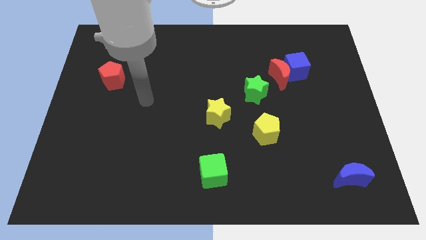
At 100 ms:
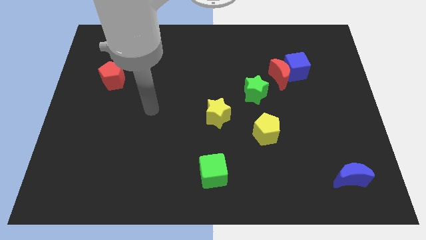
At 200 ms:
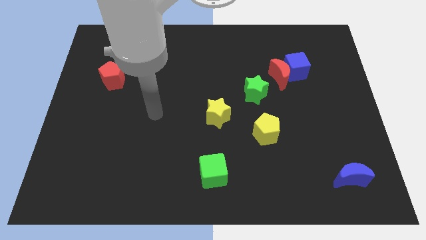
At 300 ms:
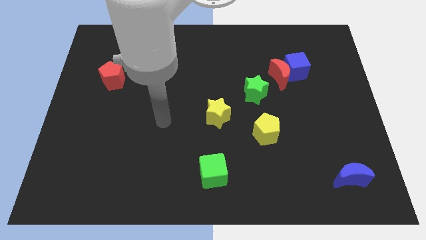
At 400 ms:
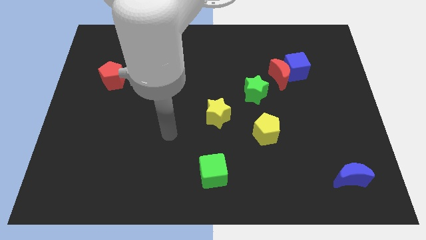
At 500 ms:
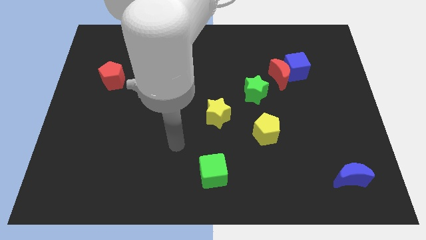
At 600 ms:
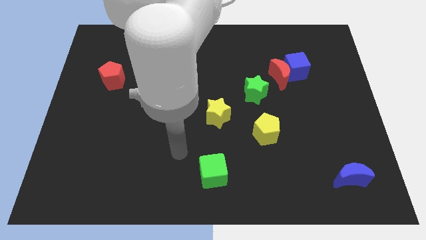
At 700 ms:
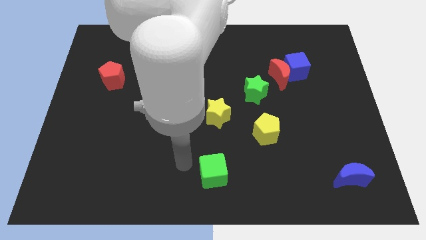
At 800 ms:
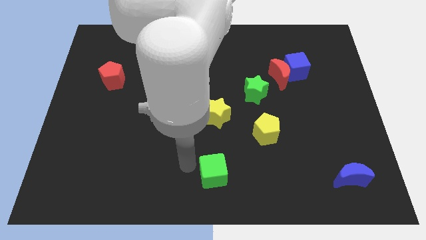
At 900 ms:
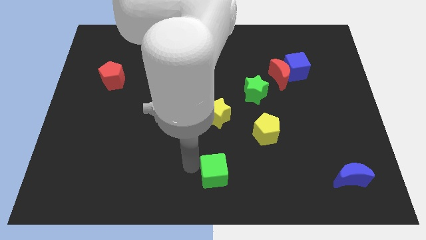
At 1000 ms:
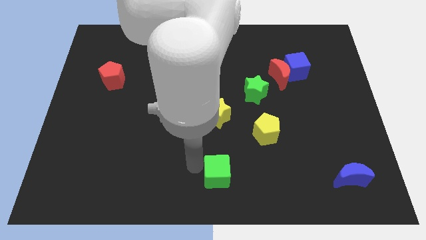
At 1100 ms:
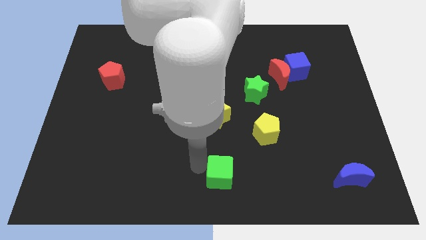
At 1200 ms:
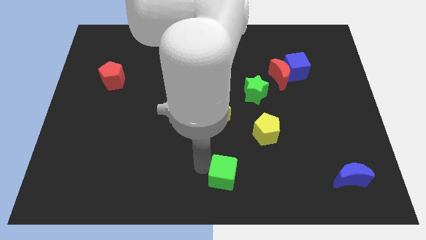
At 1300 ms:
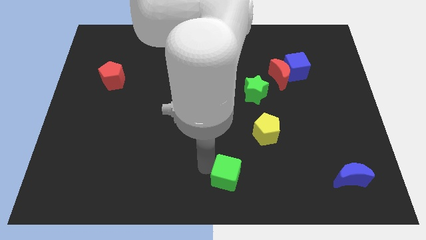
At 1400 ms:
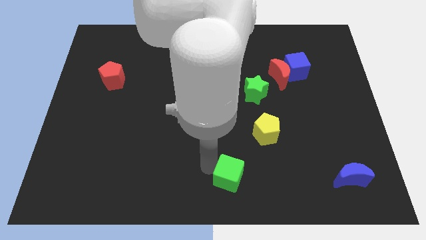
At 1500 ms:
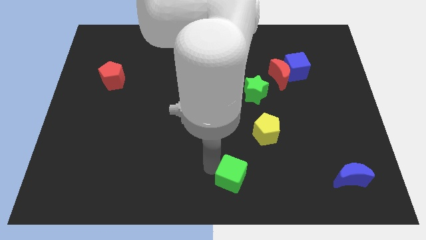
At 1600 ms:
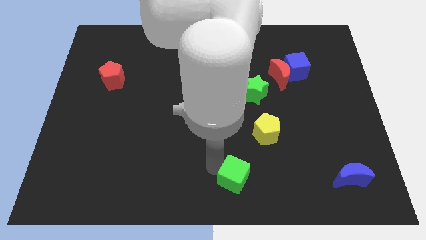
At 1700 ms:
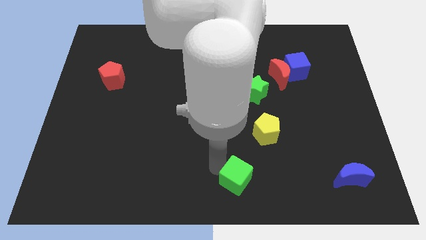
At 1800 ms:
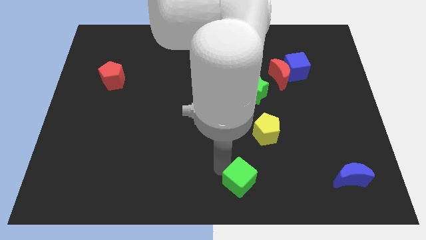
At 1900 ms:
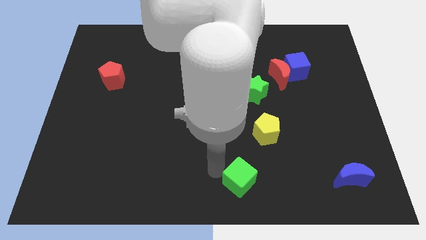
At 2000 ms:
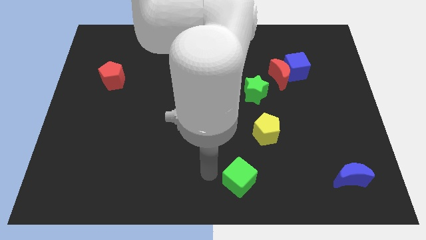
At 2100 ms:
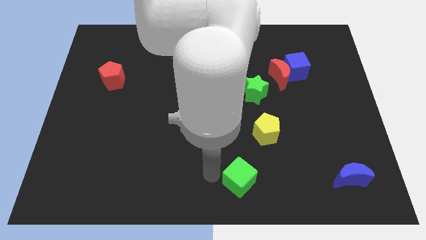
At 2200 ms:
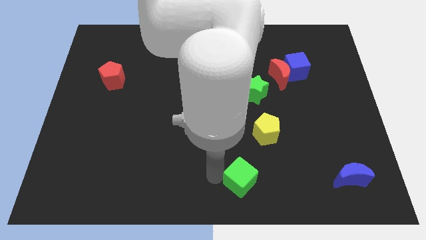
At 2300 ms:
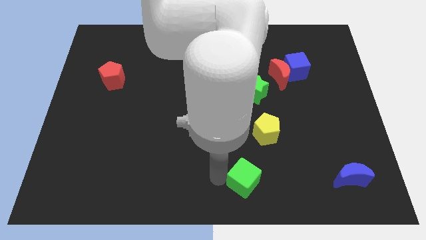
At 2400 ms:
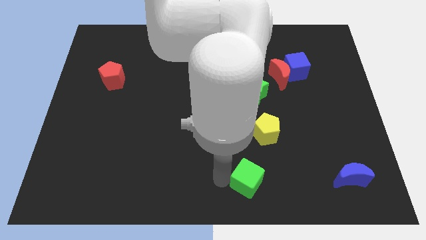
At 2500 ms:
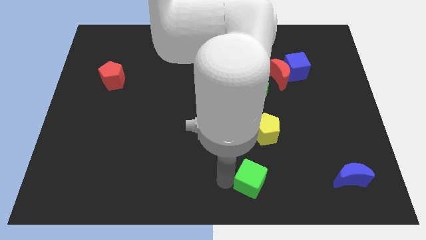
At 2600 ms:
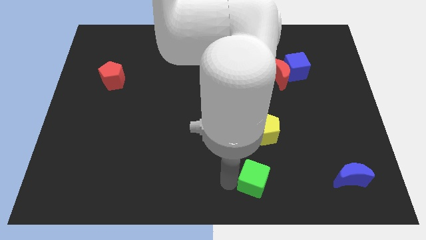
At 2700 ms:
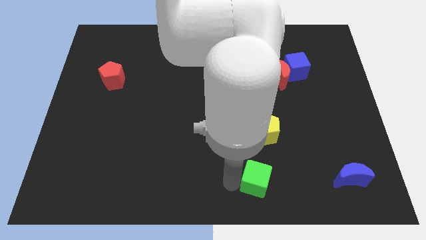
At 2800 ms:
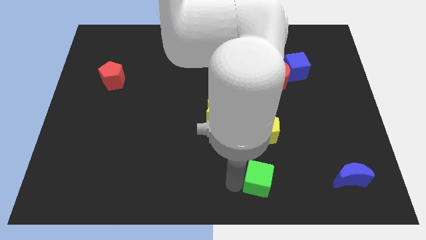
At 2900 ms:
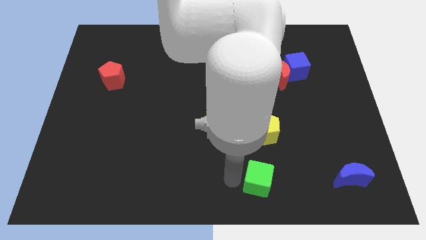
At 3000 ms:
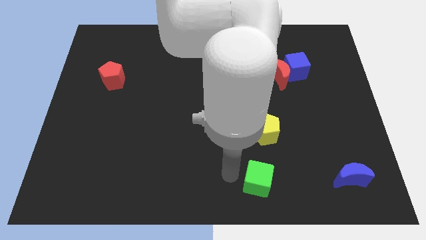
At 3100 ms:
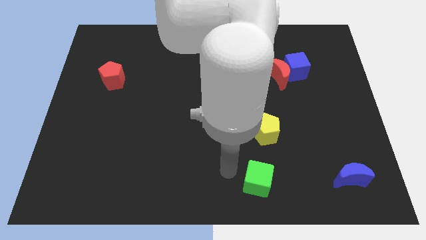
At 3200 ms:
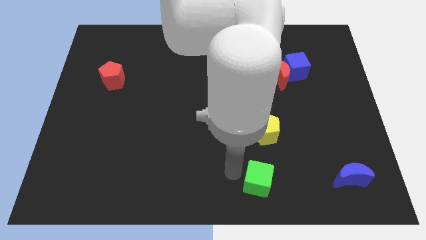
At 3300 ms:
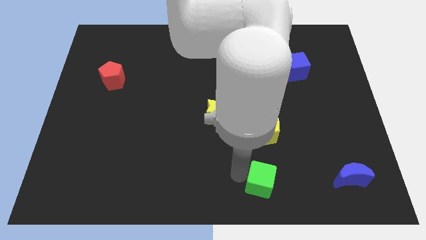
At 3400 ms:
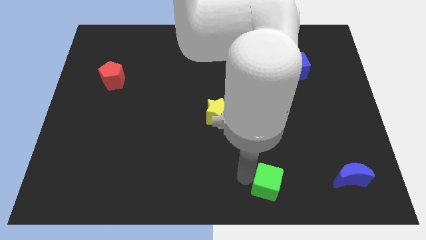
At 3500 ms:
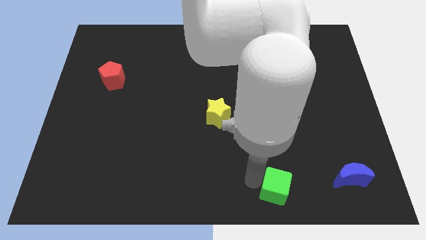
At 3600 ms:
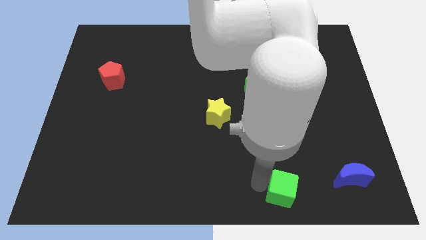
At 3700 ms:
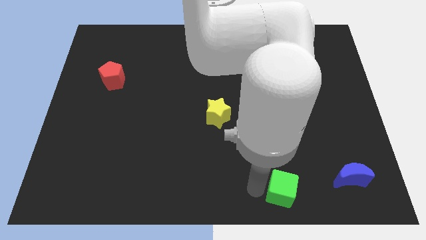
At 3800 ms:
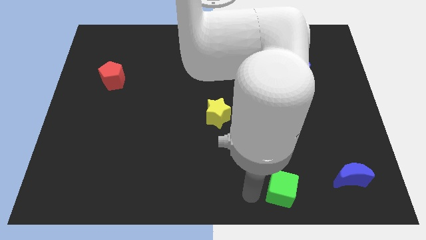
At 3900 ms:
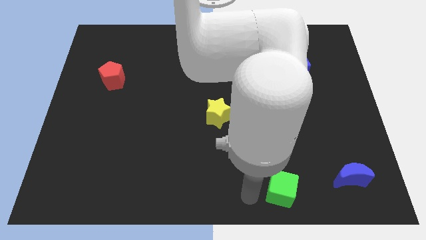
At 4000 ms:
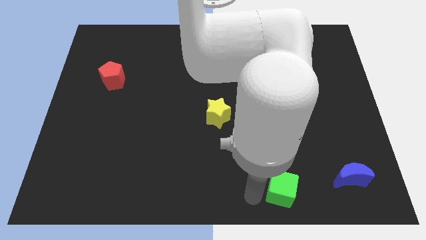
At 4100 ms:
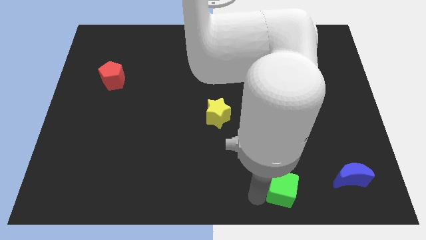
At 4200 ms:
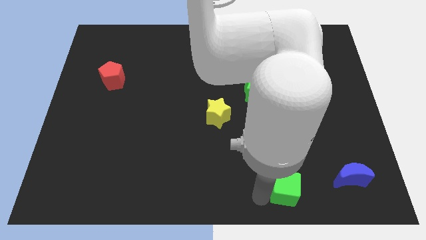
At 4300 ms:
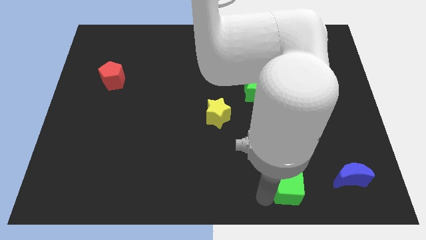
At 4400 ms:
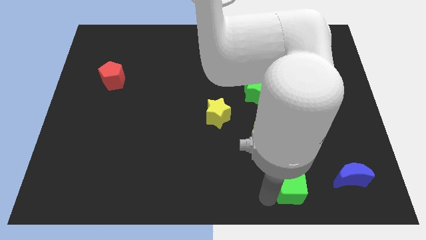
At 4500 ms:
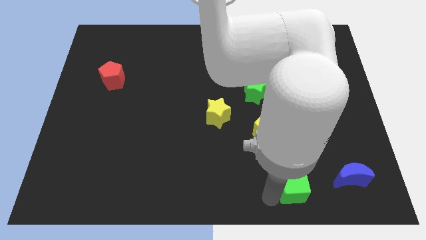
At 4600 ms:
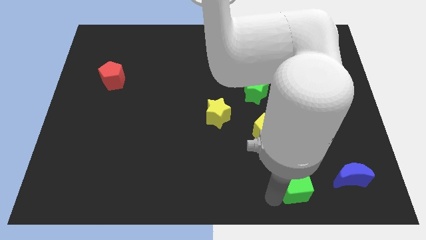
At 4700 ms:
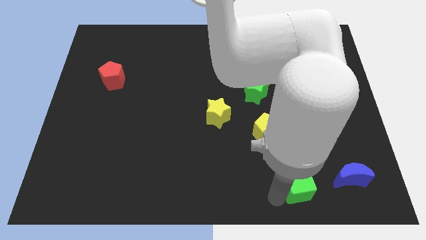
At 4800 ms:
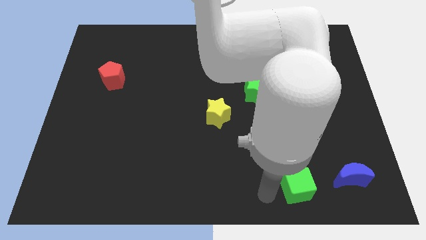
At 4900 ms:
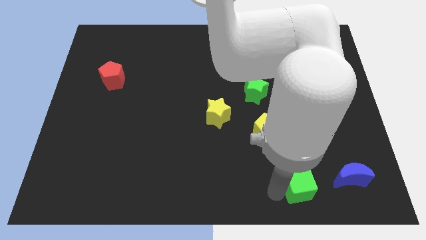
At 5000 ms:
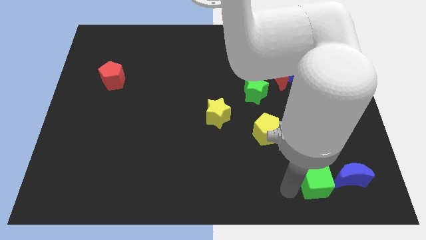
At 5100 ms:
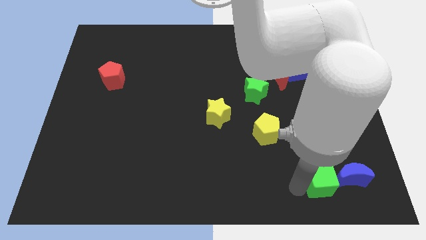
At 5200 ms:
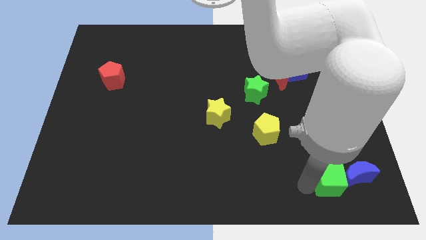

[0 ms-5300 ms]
slide the green cube to the blue moon

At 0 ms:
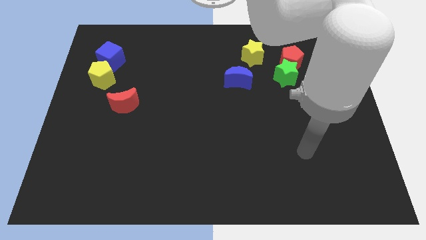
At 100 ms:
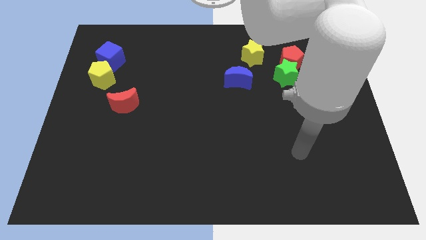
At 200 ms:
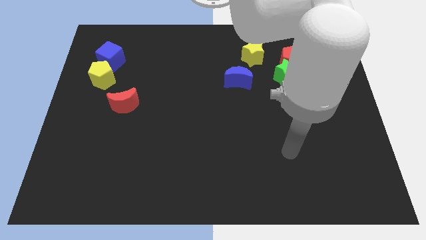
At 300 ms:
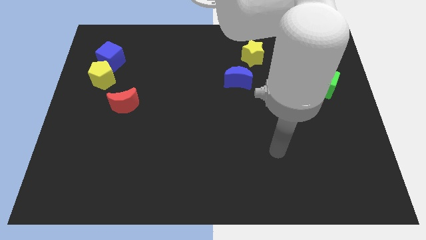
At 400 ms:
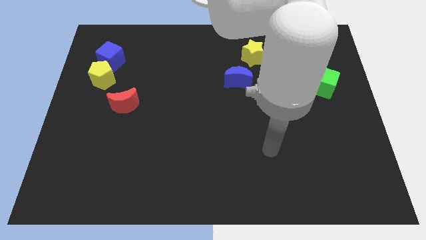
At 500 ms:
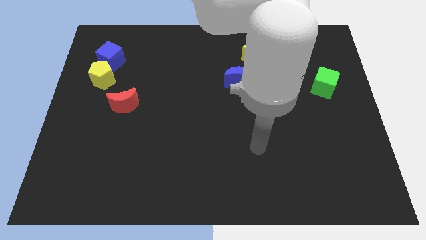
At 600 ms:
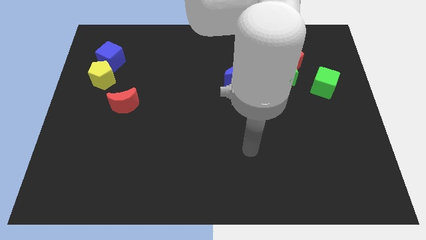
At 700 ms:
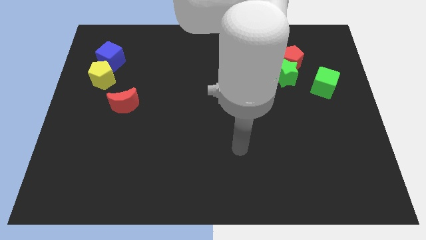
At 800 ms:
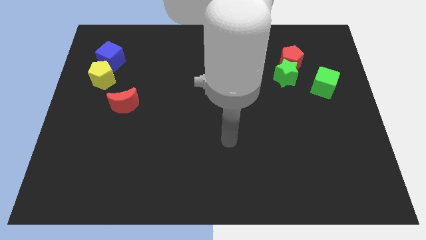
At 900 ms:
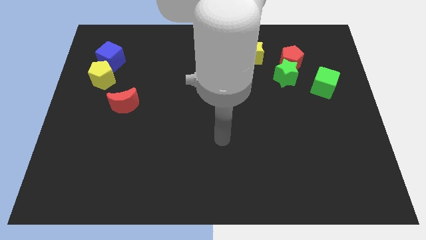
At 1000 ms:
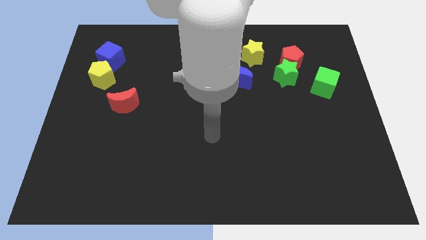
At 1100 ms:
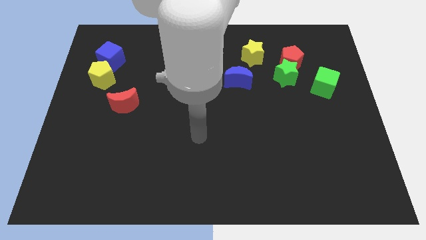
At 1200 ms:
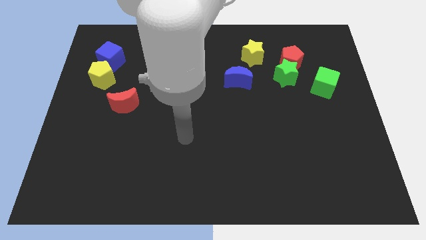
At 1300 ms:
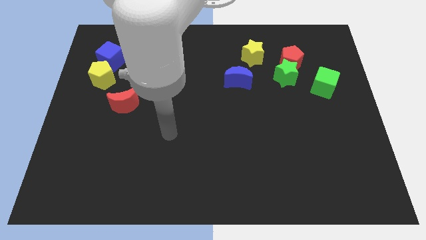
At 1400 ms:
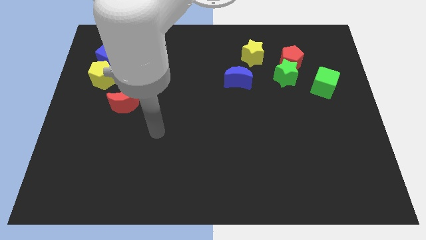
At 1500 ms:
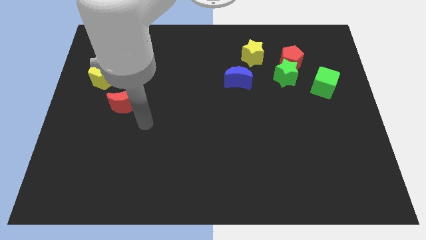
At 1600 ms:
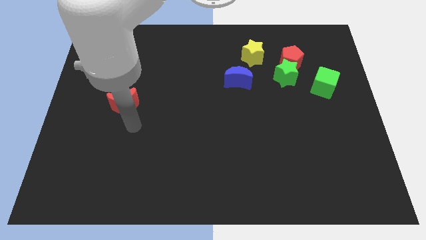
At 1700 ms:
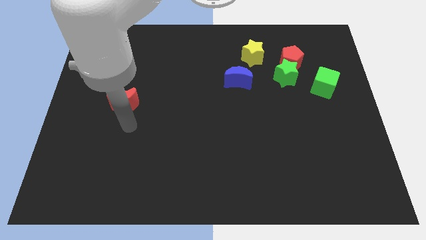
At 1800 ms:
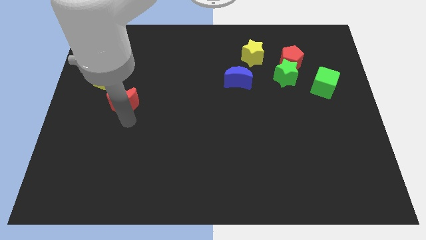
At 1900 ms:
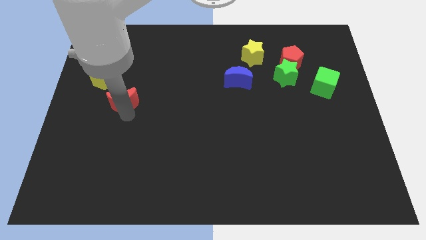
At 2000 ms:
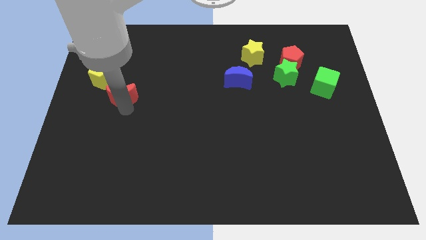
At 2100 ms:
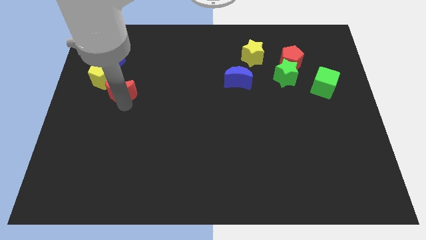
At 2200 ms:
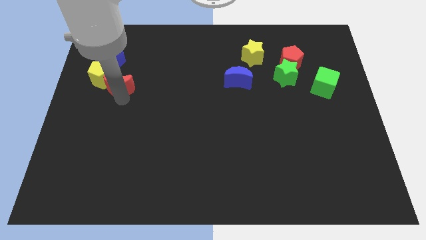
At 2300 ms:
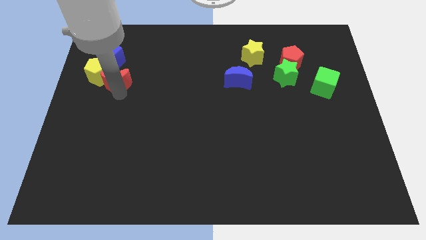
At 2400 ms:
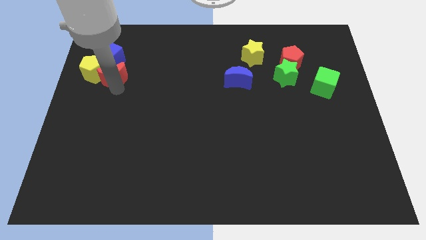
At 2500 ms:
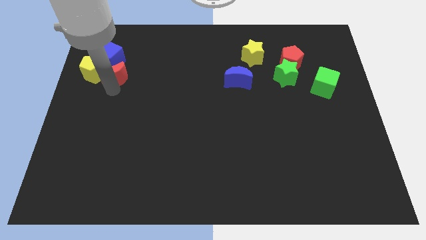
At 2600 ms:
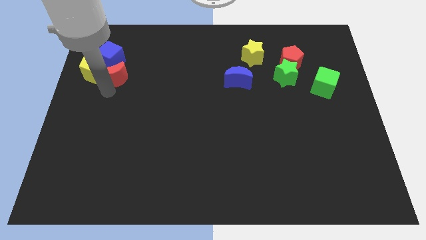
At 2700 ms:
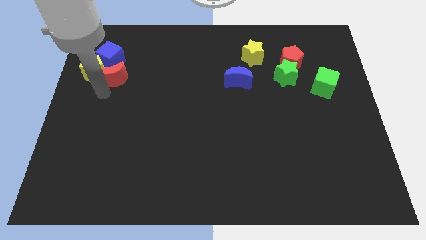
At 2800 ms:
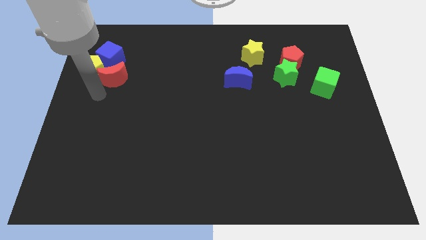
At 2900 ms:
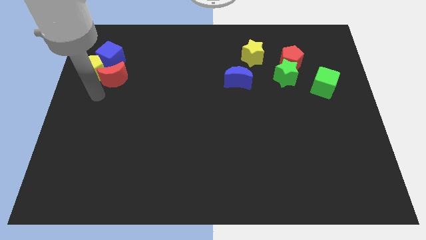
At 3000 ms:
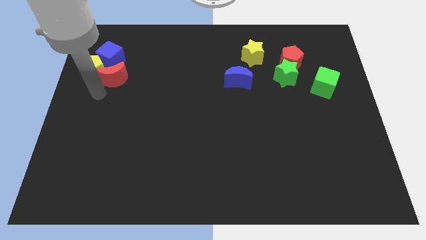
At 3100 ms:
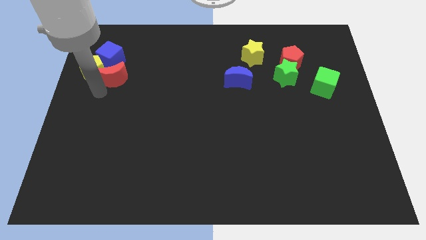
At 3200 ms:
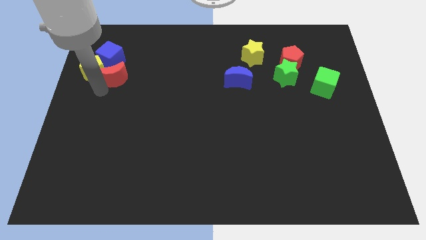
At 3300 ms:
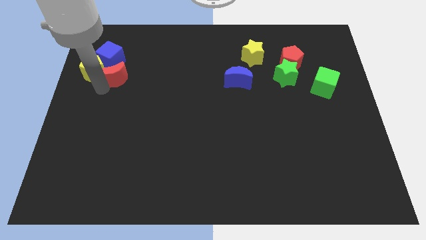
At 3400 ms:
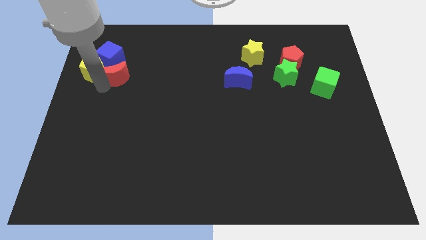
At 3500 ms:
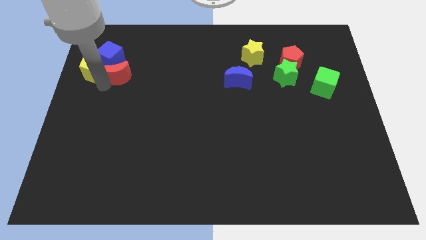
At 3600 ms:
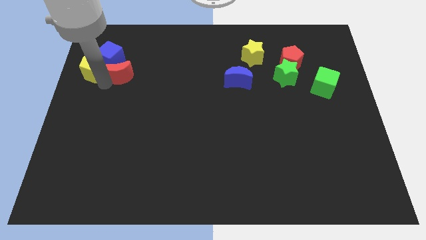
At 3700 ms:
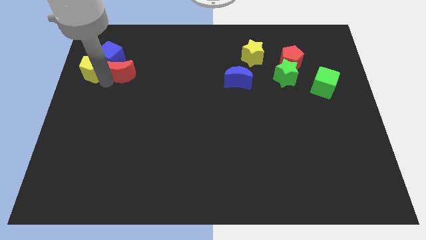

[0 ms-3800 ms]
move the red moon next to the blue cube
